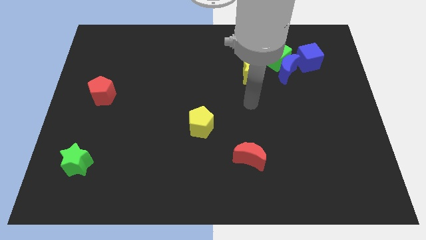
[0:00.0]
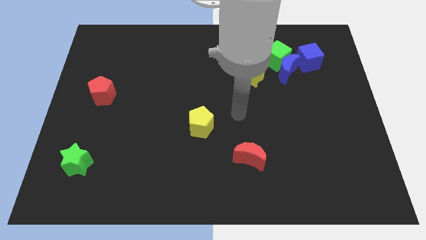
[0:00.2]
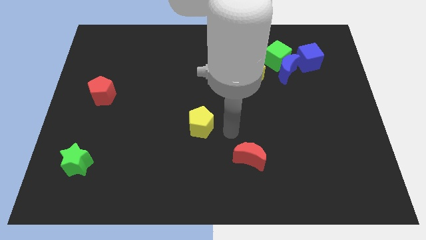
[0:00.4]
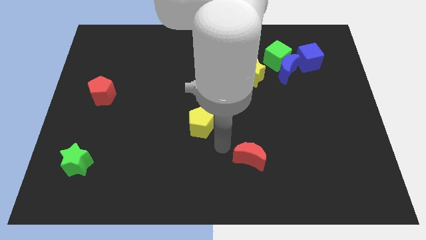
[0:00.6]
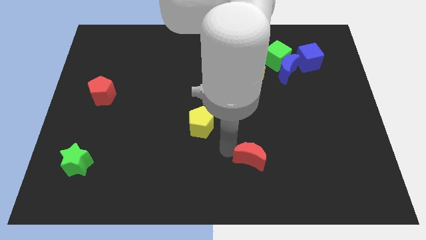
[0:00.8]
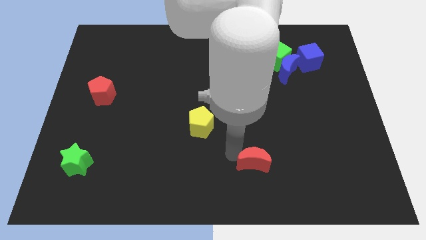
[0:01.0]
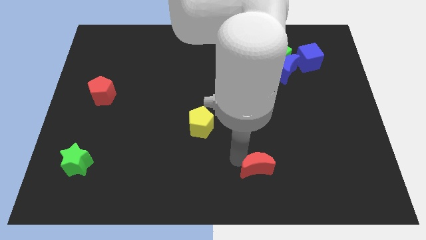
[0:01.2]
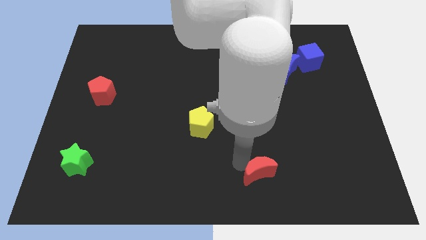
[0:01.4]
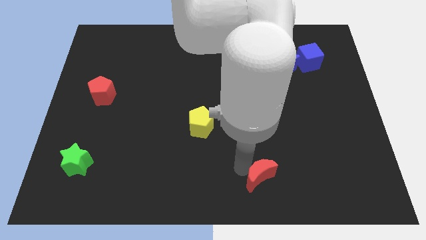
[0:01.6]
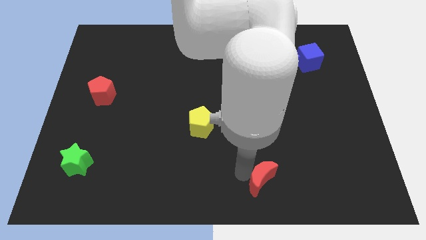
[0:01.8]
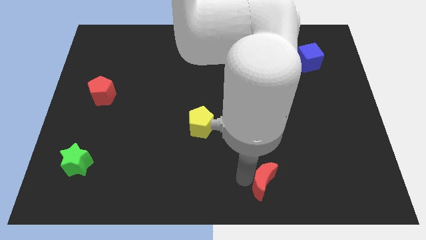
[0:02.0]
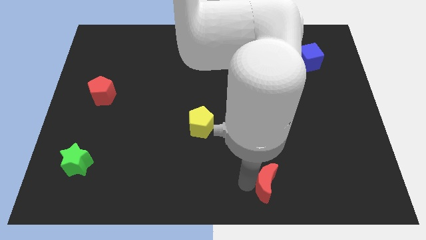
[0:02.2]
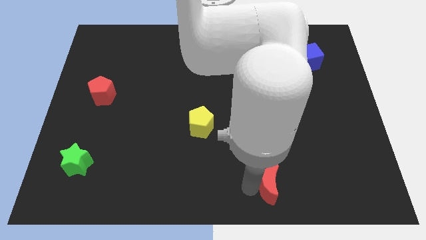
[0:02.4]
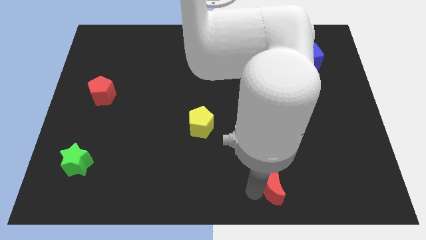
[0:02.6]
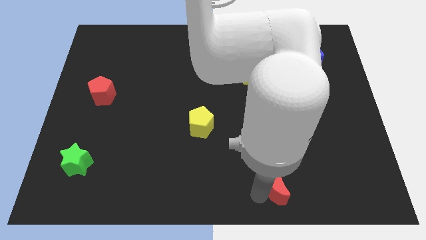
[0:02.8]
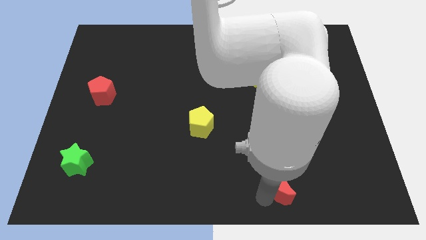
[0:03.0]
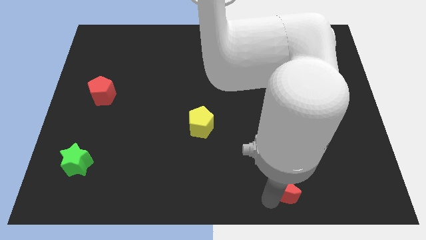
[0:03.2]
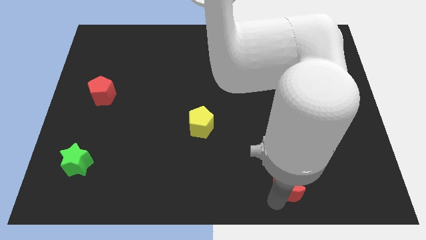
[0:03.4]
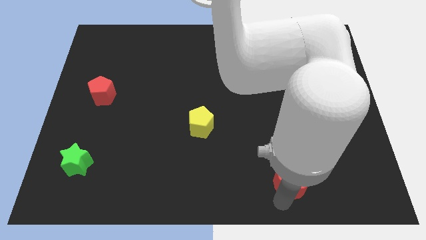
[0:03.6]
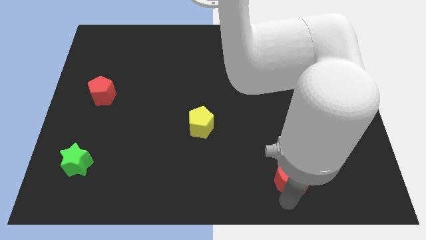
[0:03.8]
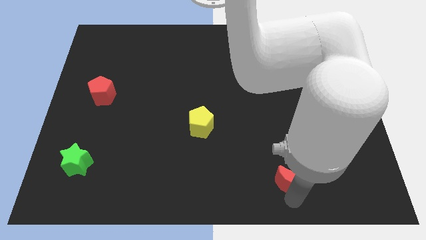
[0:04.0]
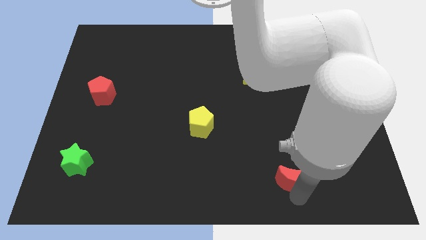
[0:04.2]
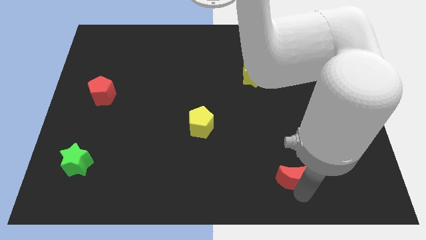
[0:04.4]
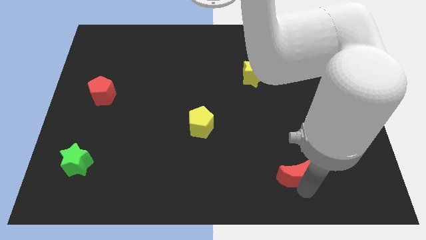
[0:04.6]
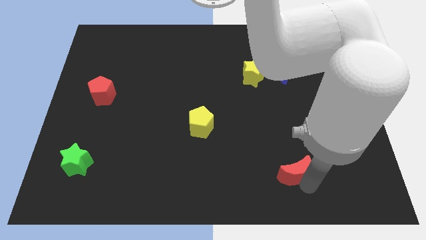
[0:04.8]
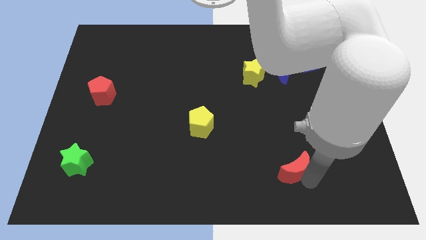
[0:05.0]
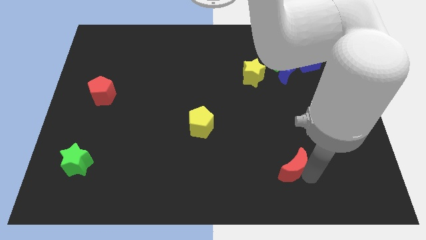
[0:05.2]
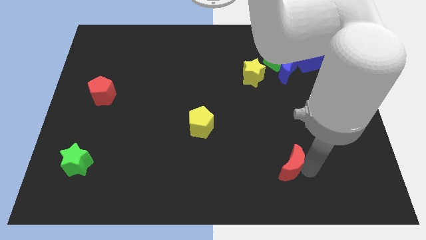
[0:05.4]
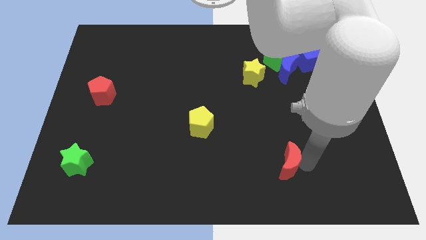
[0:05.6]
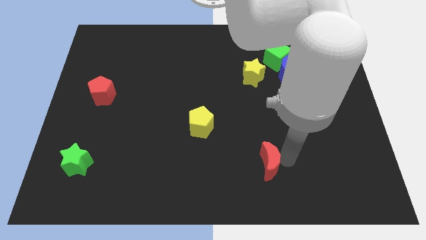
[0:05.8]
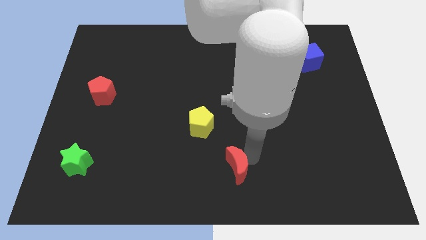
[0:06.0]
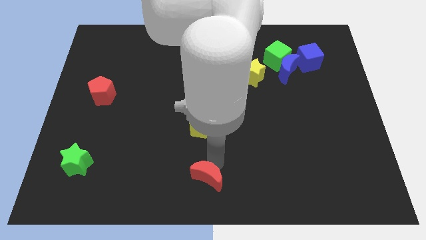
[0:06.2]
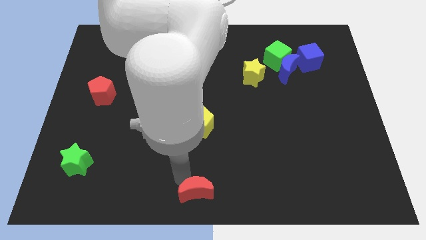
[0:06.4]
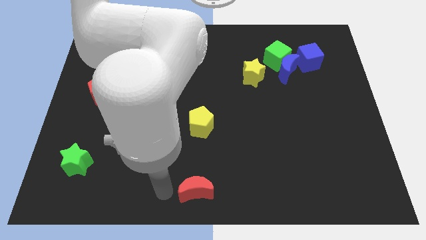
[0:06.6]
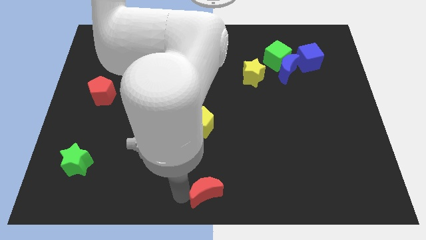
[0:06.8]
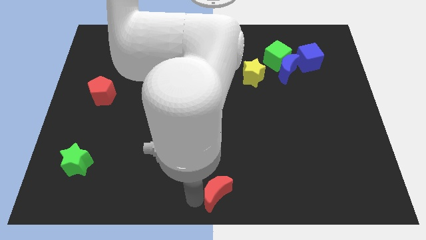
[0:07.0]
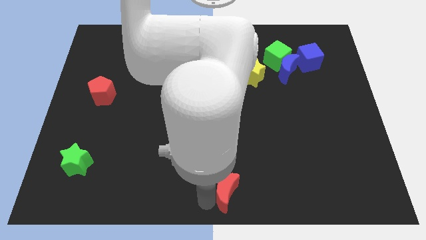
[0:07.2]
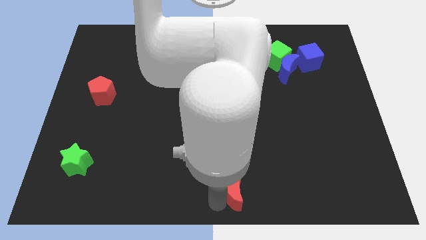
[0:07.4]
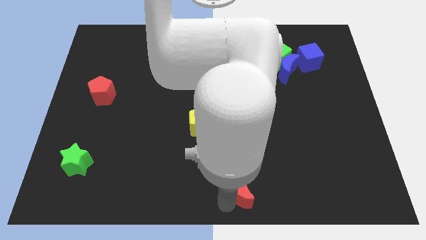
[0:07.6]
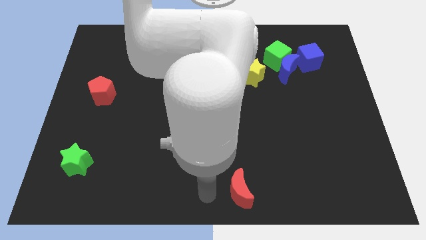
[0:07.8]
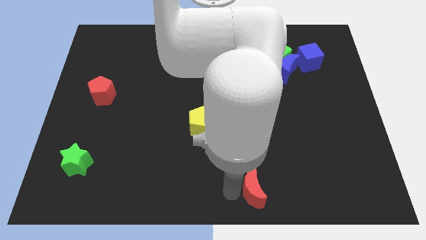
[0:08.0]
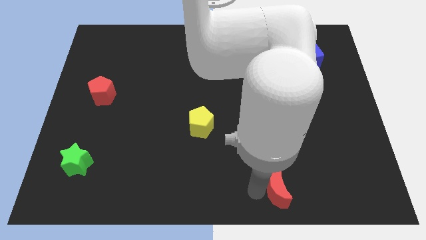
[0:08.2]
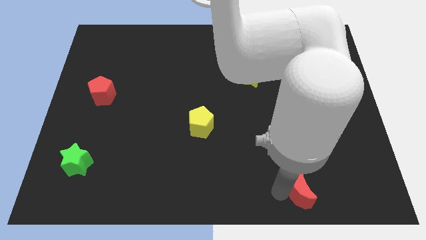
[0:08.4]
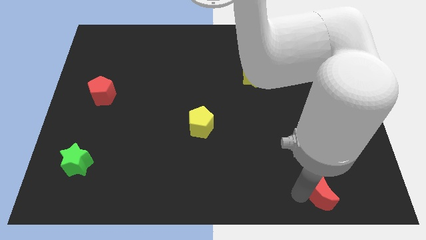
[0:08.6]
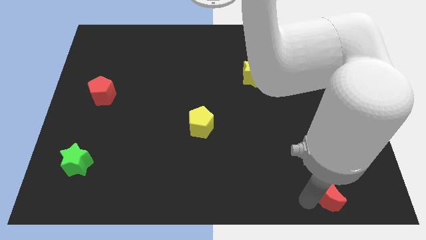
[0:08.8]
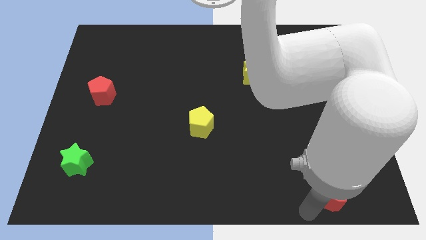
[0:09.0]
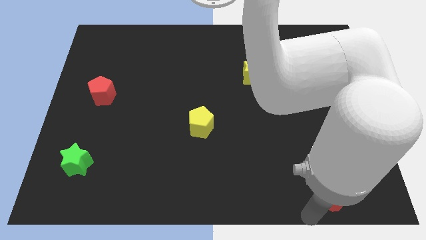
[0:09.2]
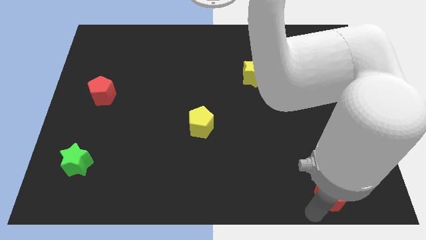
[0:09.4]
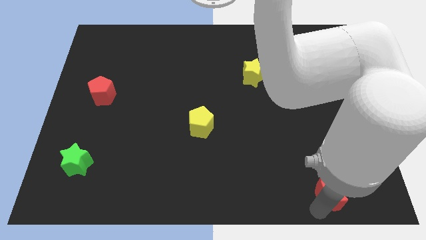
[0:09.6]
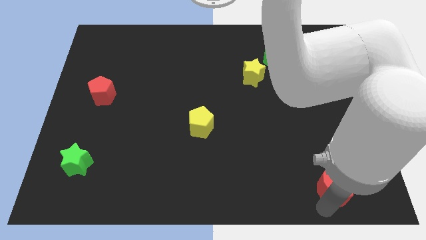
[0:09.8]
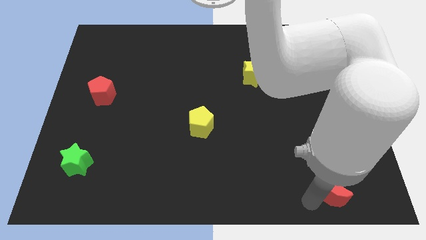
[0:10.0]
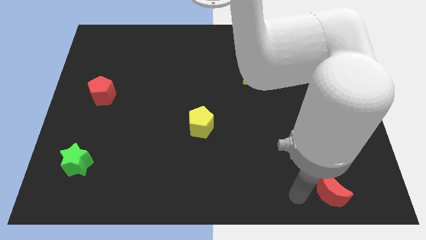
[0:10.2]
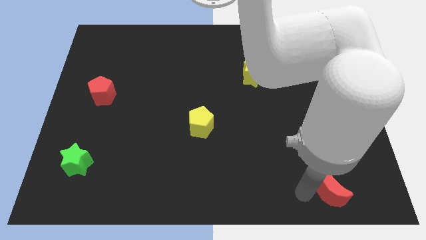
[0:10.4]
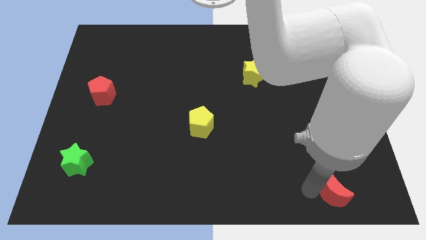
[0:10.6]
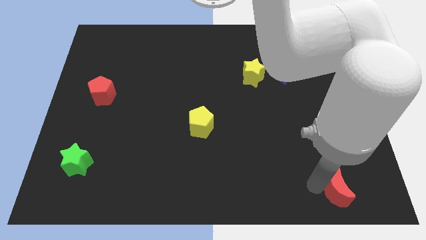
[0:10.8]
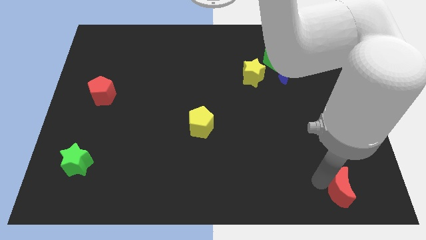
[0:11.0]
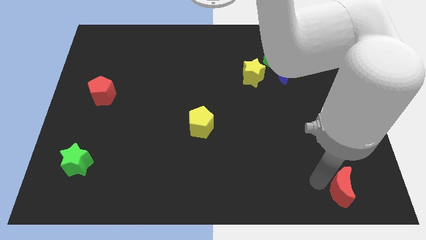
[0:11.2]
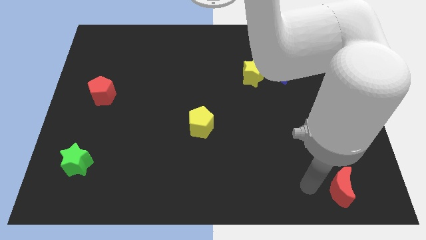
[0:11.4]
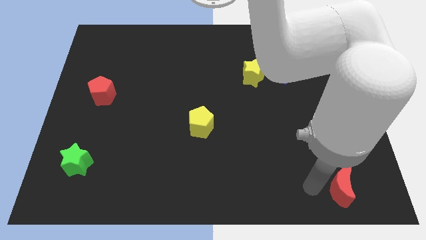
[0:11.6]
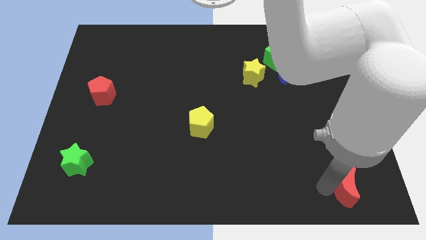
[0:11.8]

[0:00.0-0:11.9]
move the red moon to the bottom right of the board
